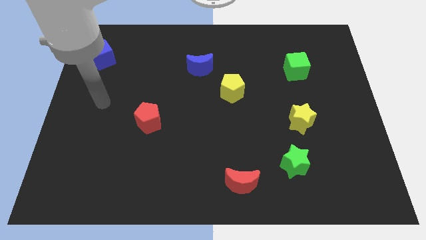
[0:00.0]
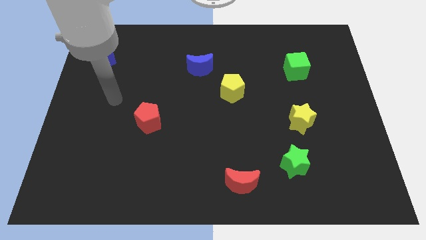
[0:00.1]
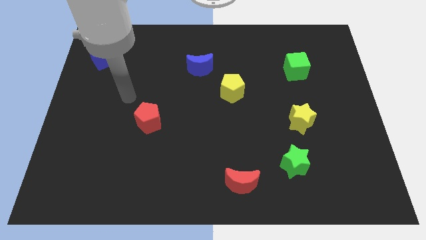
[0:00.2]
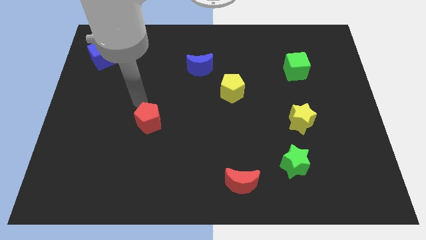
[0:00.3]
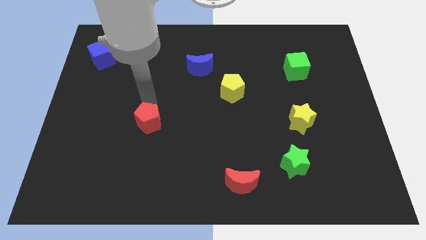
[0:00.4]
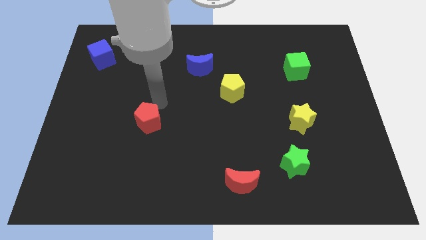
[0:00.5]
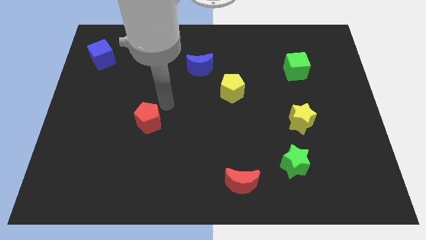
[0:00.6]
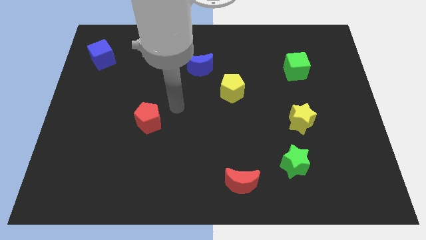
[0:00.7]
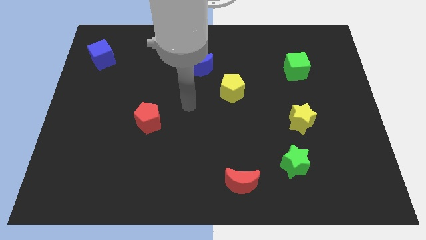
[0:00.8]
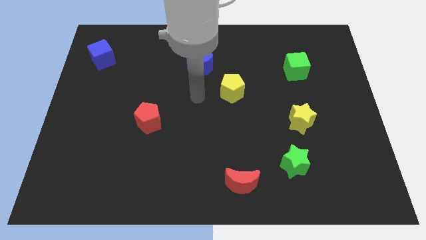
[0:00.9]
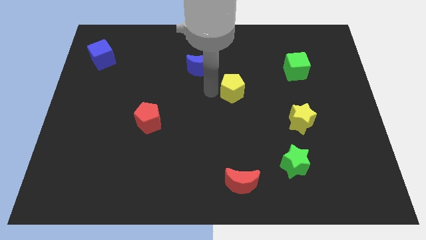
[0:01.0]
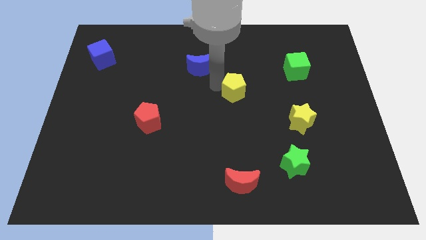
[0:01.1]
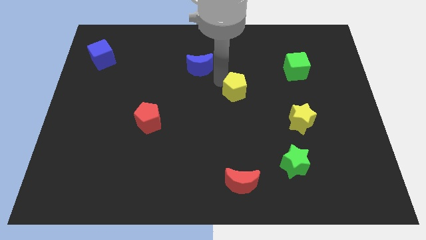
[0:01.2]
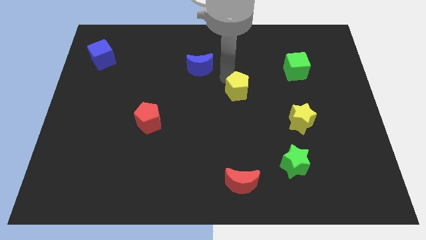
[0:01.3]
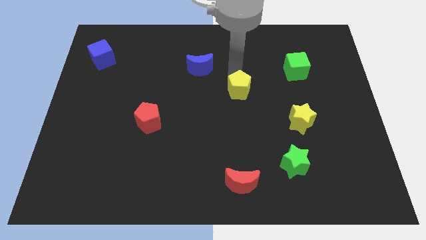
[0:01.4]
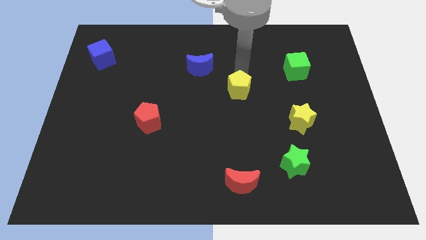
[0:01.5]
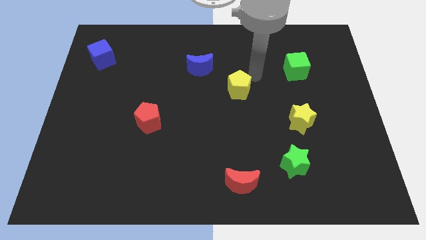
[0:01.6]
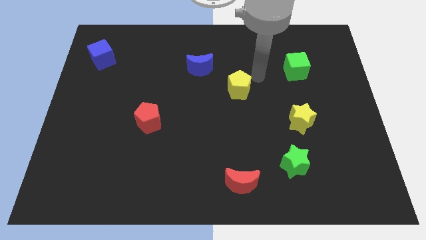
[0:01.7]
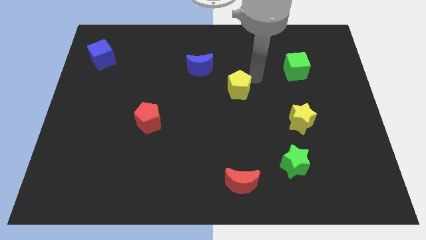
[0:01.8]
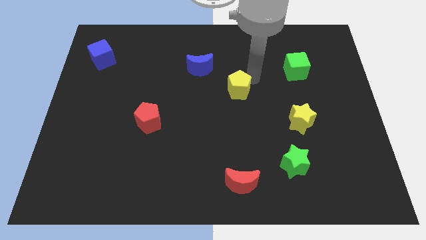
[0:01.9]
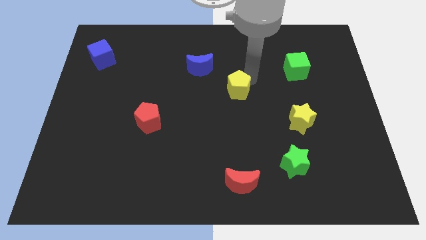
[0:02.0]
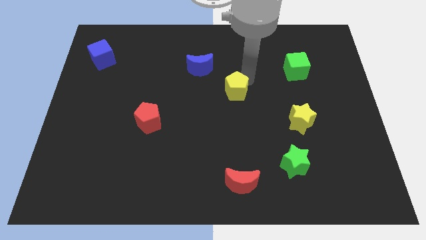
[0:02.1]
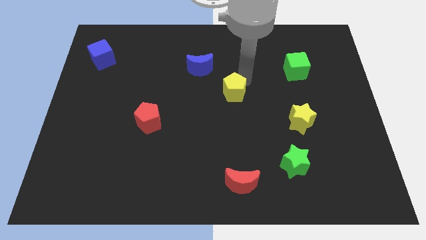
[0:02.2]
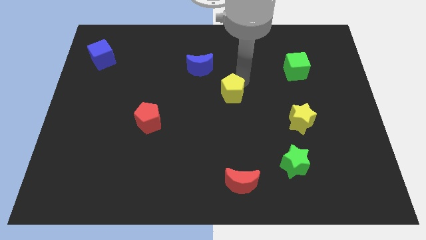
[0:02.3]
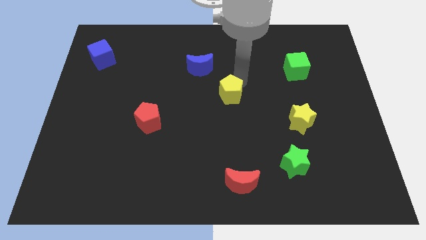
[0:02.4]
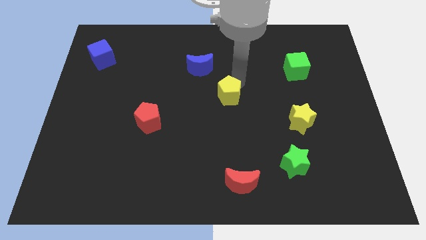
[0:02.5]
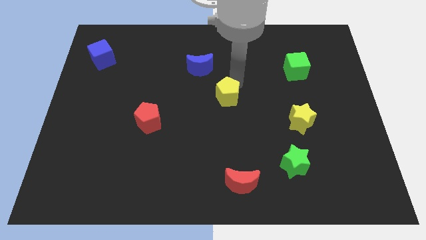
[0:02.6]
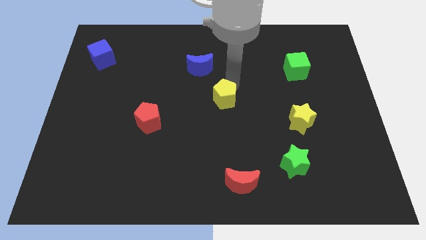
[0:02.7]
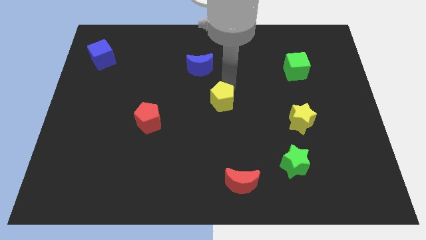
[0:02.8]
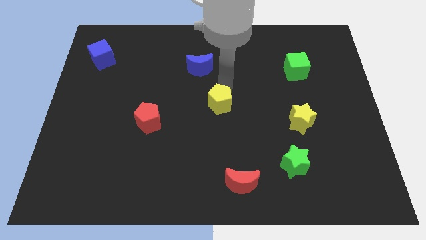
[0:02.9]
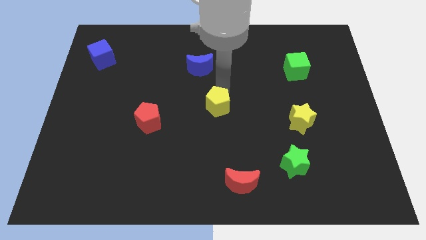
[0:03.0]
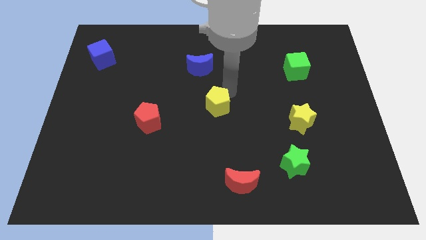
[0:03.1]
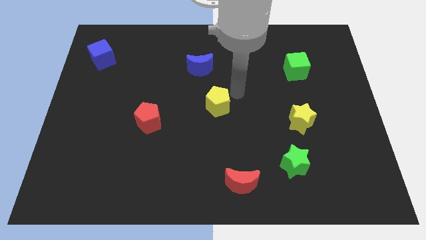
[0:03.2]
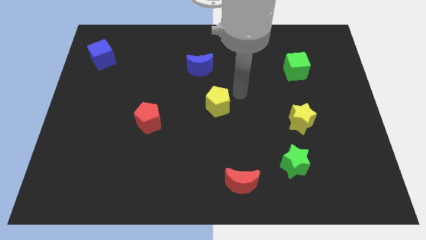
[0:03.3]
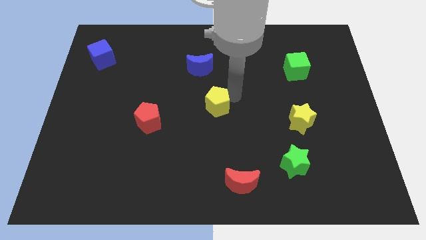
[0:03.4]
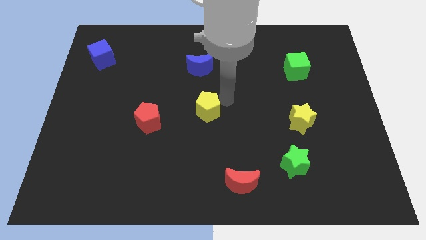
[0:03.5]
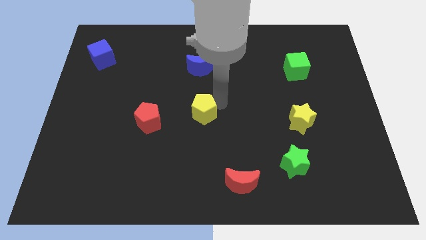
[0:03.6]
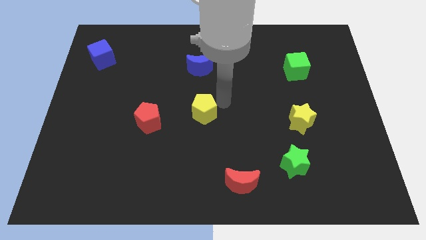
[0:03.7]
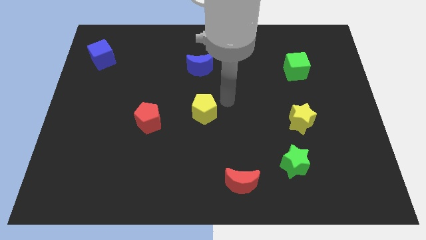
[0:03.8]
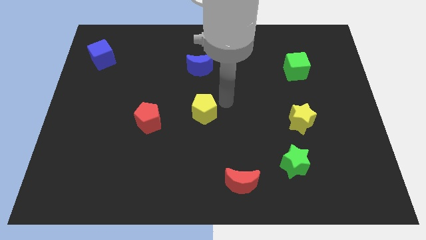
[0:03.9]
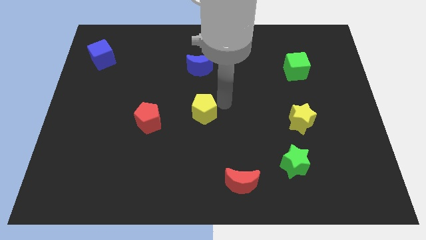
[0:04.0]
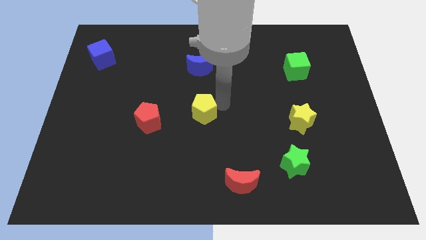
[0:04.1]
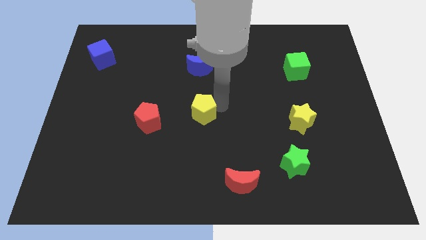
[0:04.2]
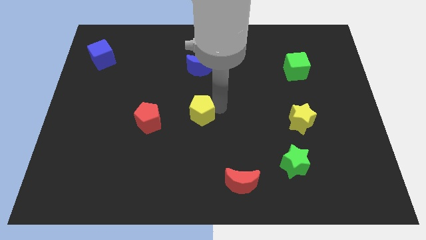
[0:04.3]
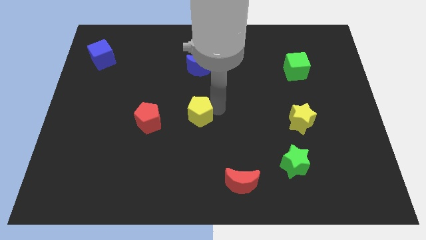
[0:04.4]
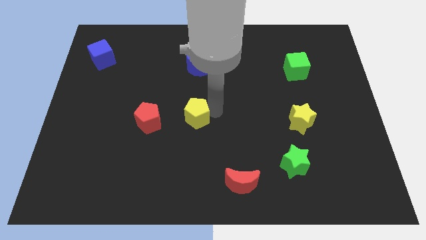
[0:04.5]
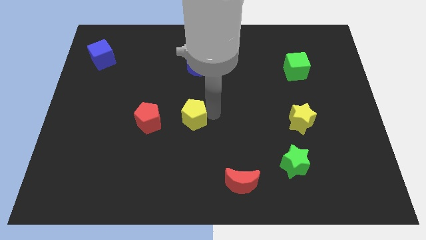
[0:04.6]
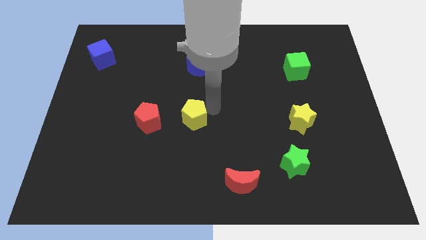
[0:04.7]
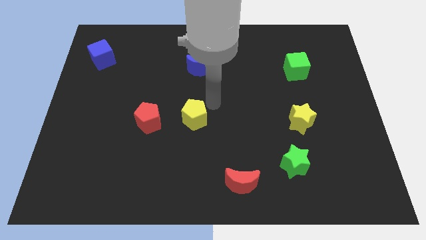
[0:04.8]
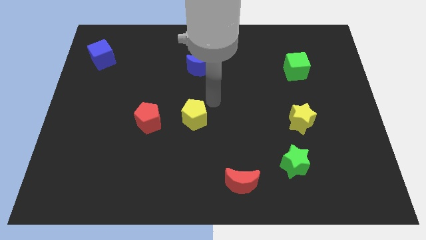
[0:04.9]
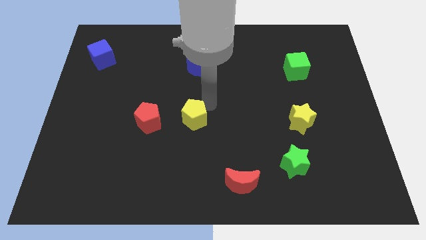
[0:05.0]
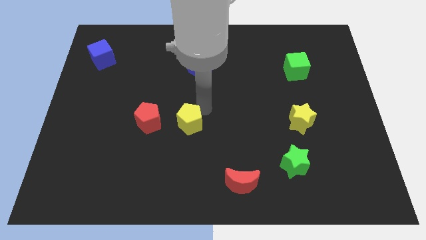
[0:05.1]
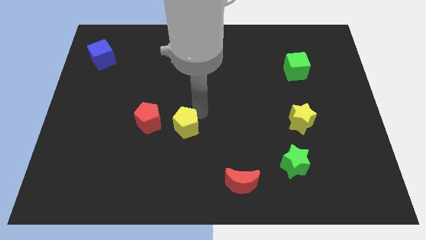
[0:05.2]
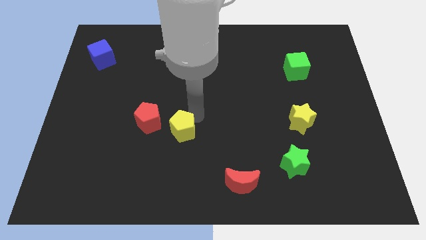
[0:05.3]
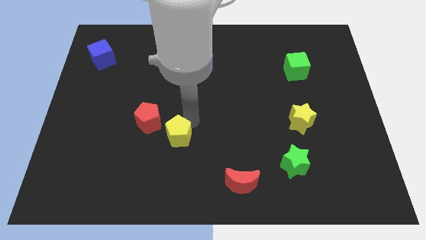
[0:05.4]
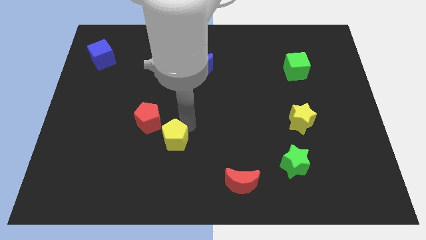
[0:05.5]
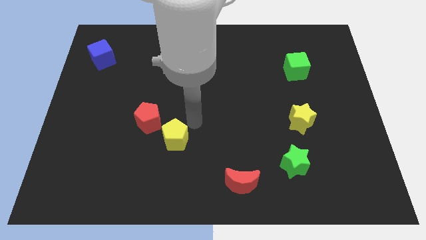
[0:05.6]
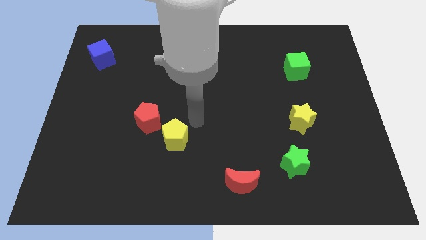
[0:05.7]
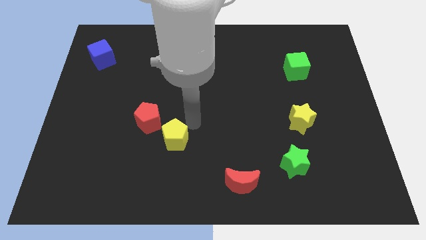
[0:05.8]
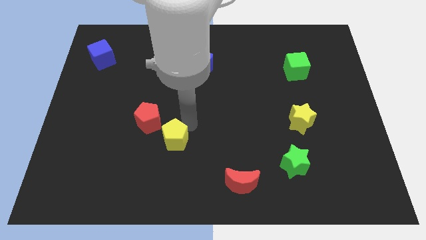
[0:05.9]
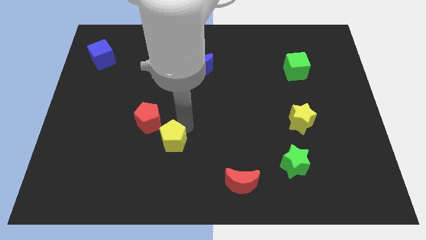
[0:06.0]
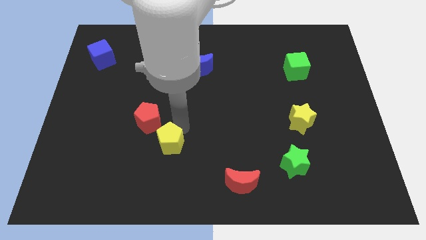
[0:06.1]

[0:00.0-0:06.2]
move the yellow pentagon diagonally down and left

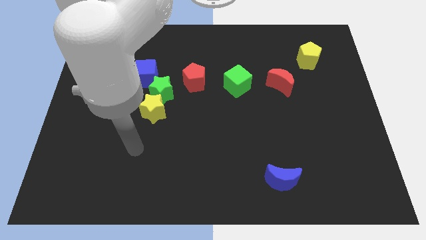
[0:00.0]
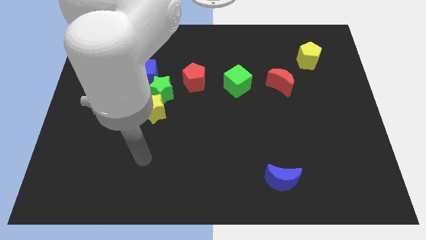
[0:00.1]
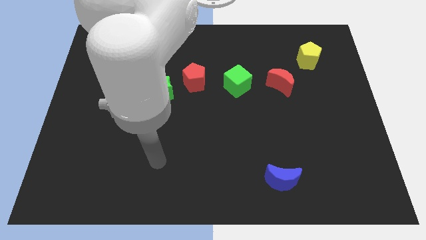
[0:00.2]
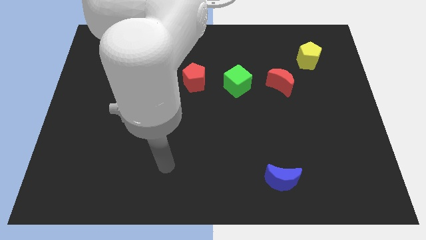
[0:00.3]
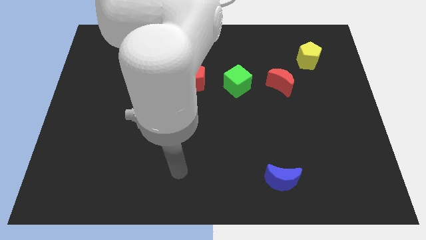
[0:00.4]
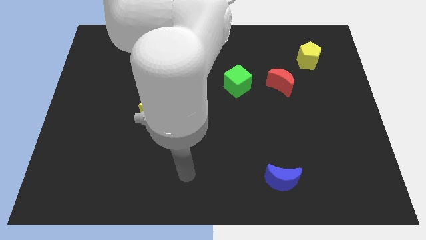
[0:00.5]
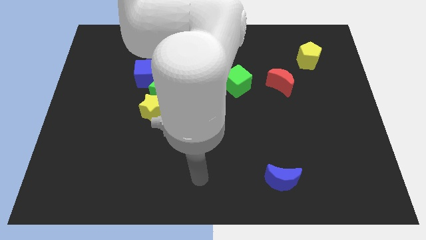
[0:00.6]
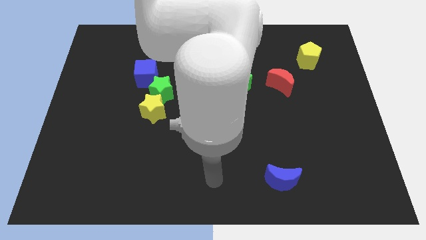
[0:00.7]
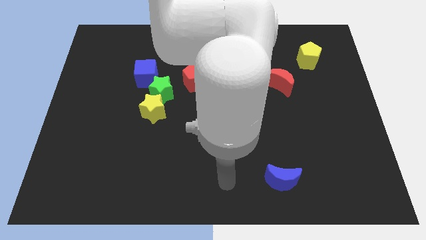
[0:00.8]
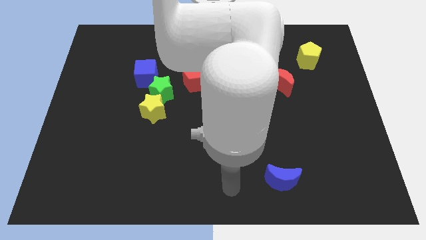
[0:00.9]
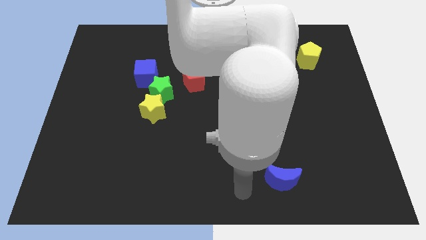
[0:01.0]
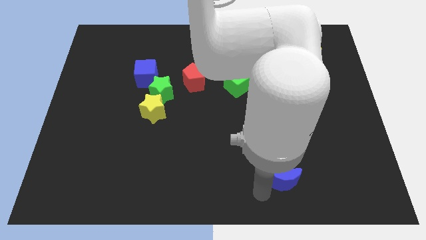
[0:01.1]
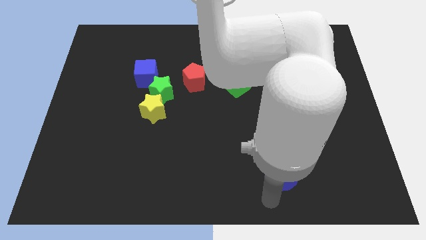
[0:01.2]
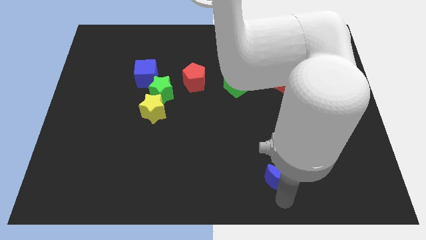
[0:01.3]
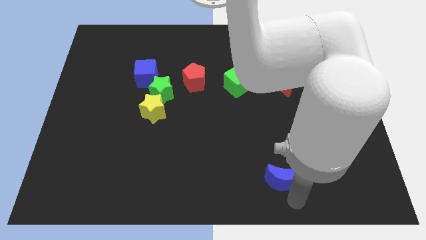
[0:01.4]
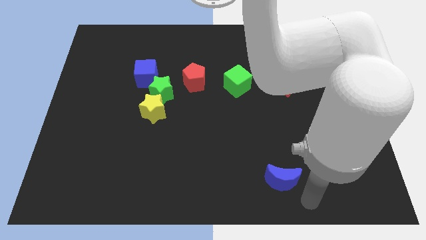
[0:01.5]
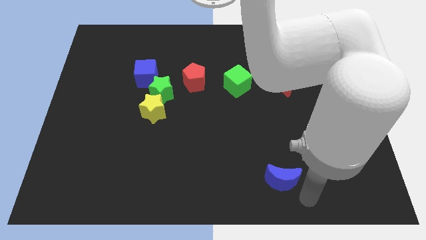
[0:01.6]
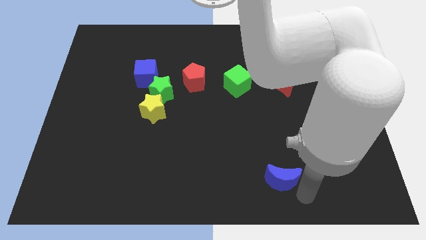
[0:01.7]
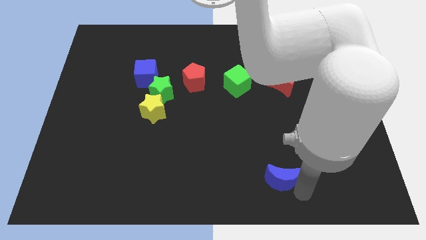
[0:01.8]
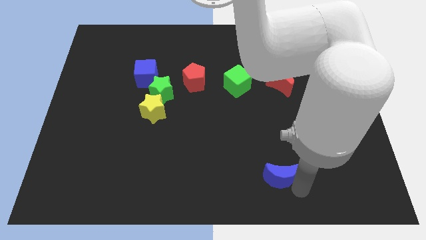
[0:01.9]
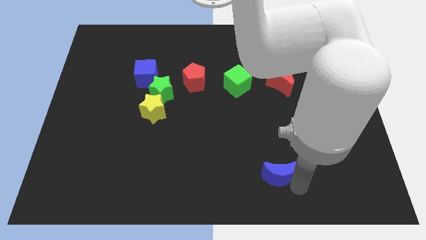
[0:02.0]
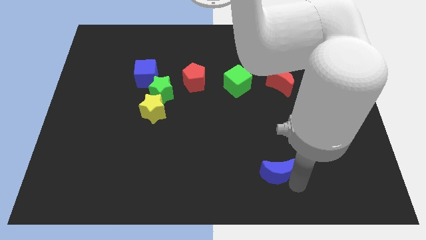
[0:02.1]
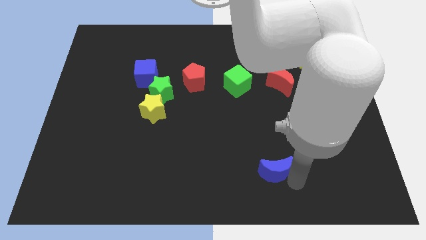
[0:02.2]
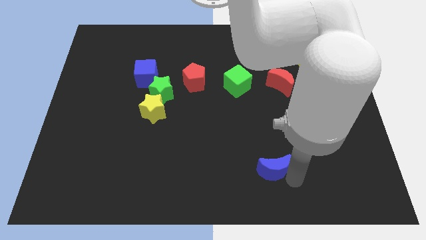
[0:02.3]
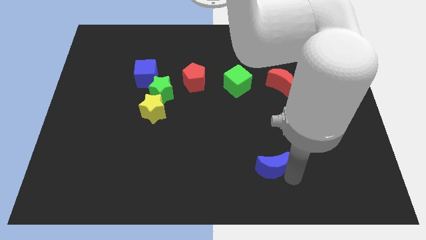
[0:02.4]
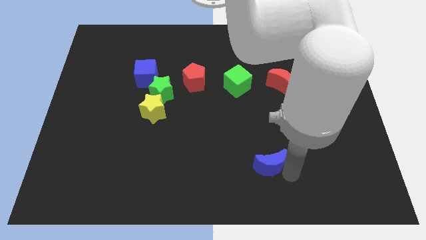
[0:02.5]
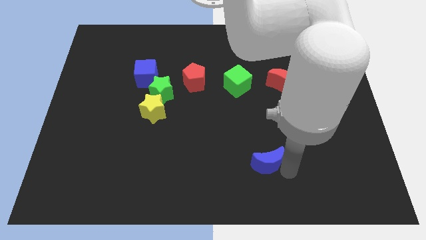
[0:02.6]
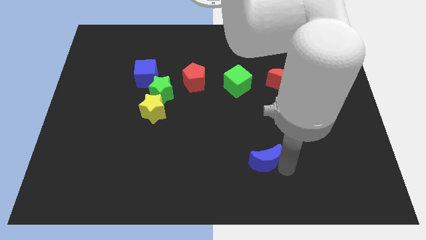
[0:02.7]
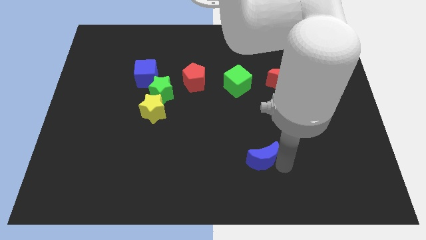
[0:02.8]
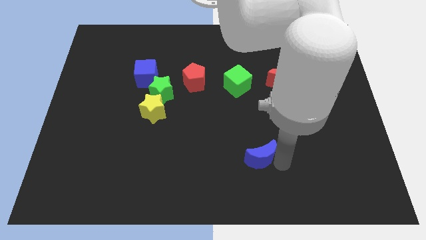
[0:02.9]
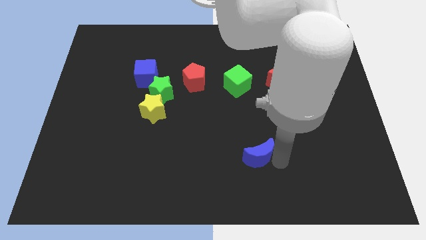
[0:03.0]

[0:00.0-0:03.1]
move the blue moon slightly upwards and left diagonally
